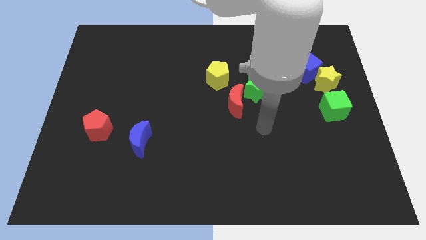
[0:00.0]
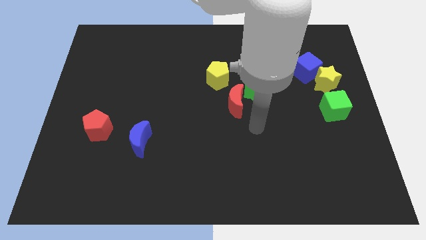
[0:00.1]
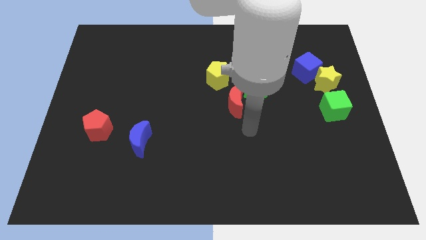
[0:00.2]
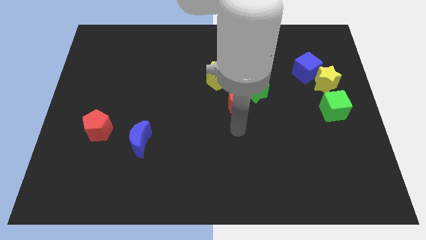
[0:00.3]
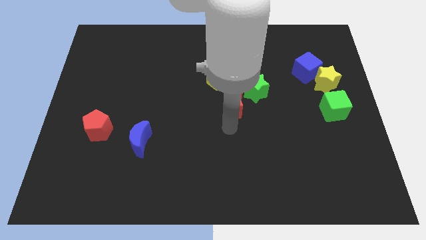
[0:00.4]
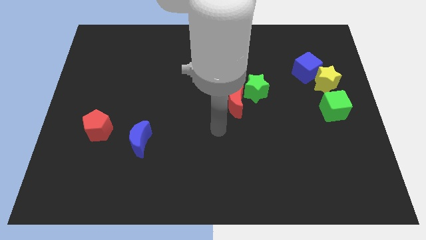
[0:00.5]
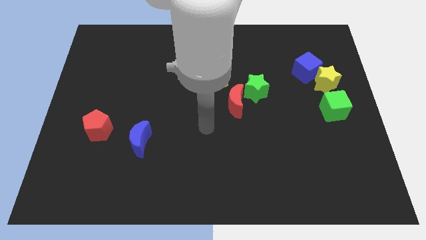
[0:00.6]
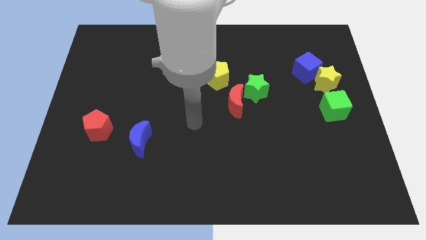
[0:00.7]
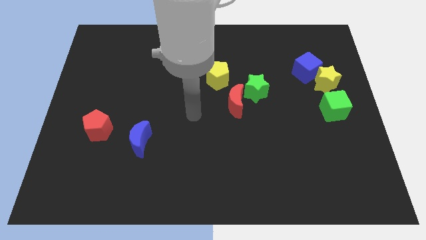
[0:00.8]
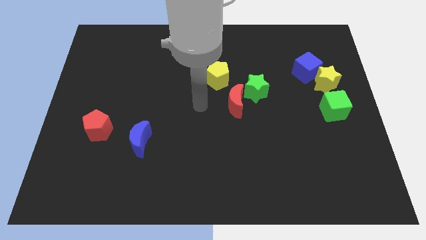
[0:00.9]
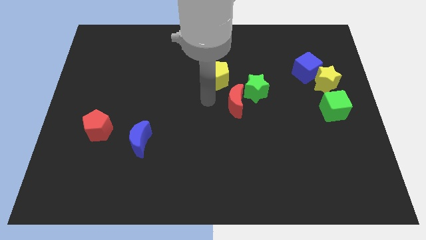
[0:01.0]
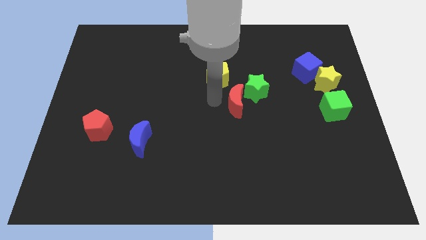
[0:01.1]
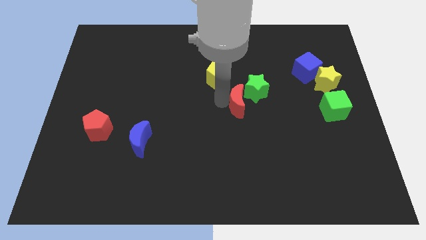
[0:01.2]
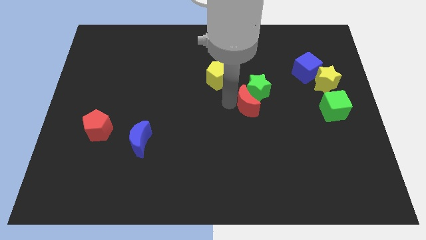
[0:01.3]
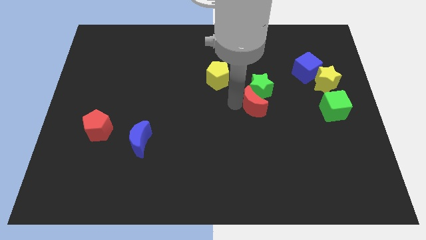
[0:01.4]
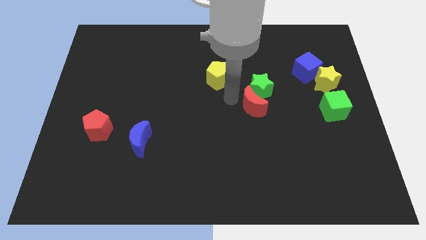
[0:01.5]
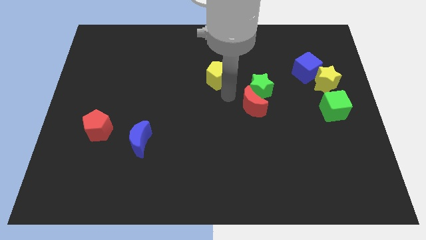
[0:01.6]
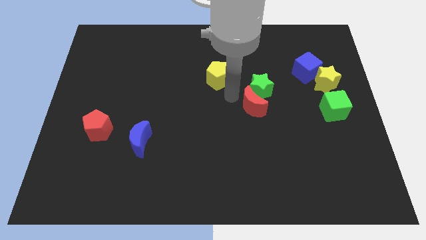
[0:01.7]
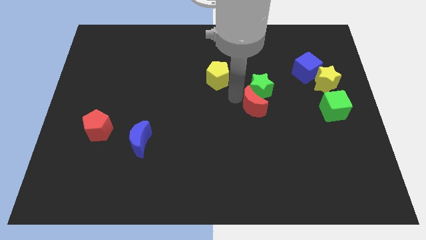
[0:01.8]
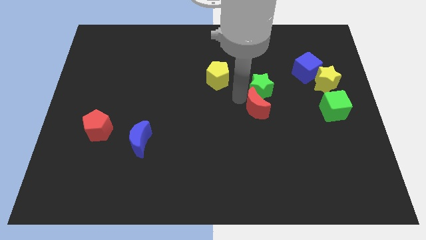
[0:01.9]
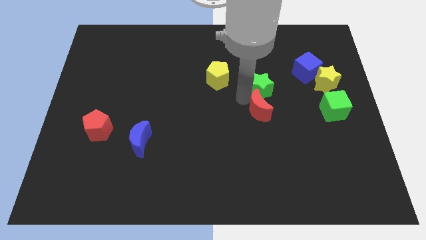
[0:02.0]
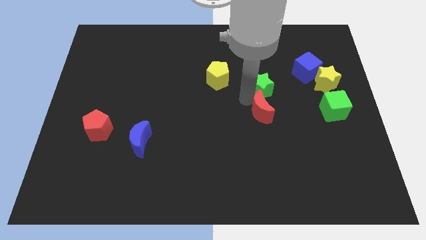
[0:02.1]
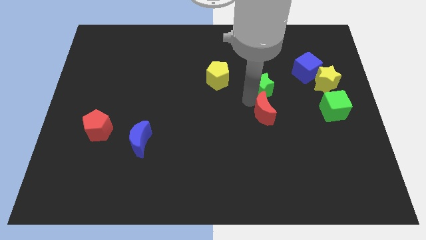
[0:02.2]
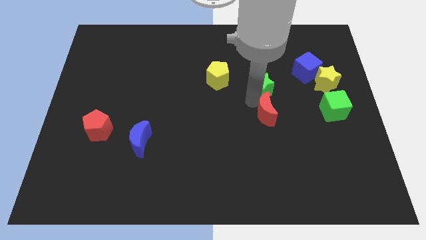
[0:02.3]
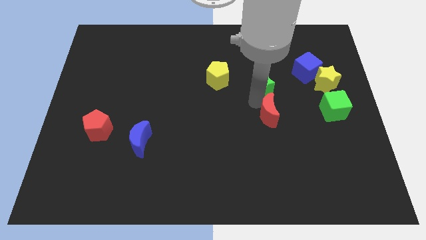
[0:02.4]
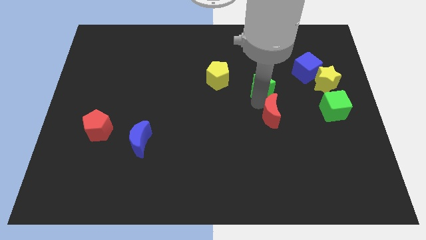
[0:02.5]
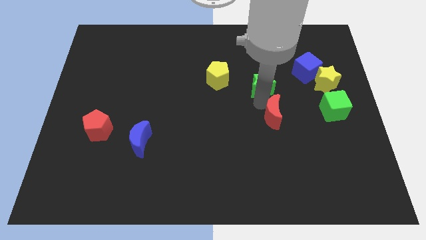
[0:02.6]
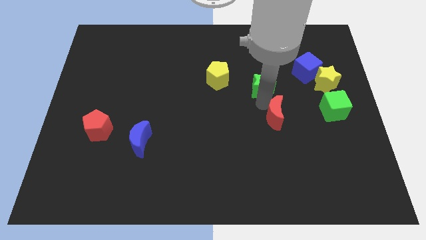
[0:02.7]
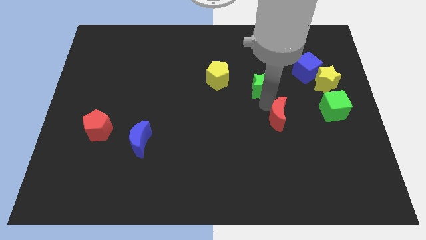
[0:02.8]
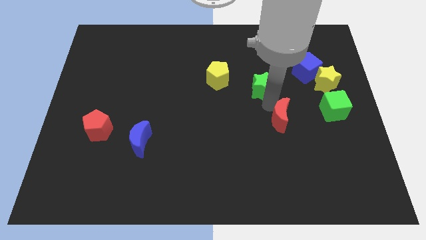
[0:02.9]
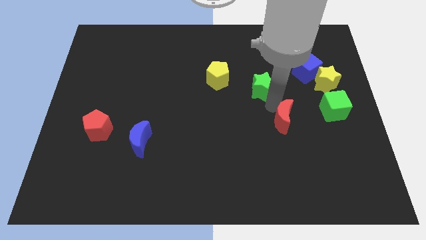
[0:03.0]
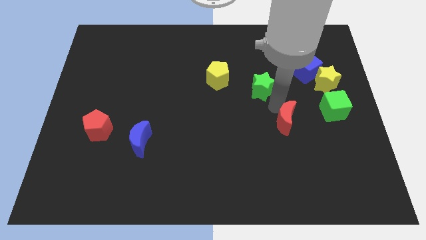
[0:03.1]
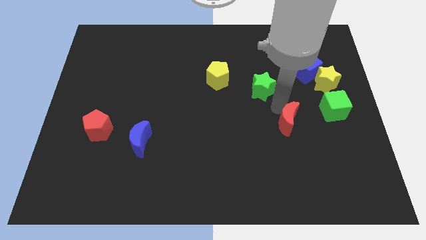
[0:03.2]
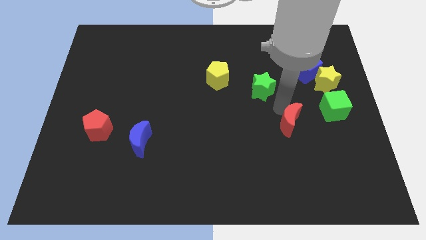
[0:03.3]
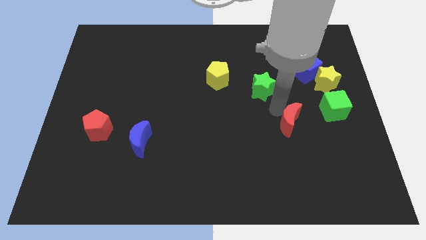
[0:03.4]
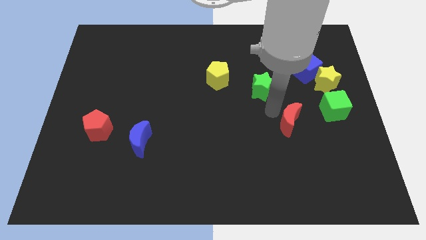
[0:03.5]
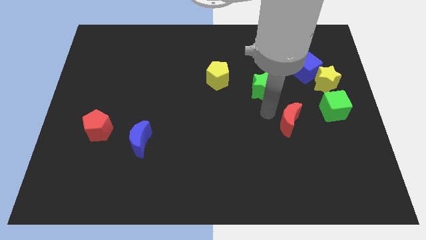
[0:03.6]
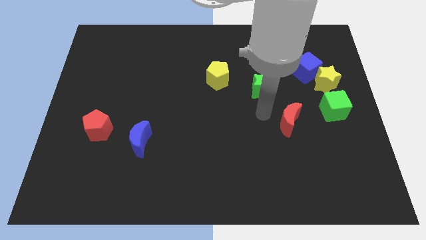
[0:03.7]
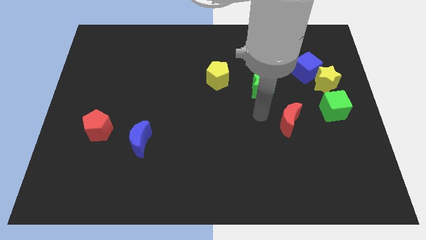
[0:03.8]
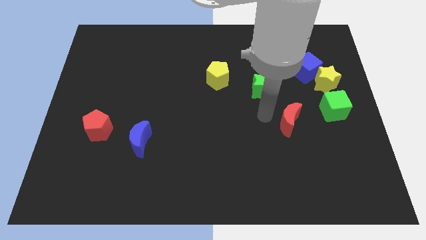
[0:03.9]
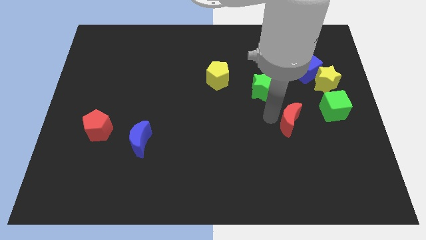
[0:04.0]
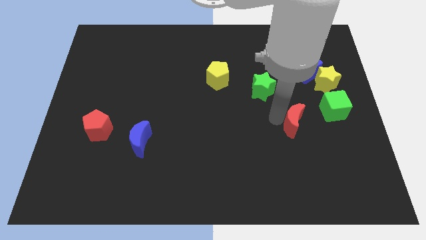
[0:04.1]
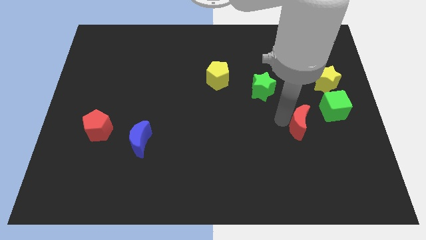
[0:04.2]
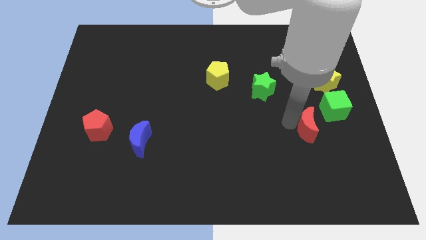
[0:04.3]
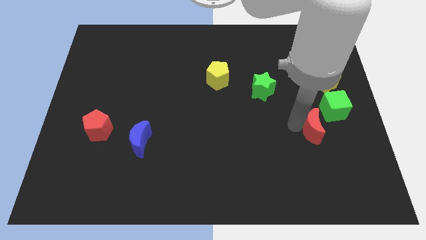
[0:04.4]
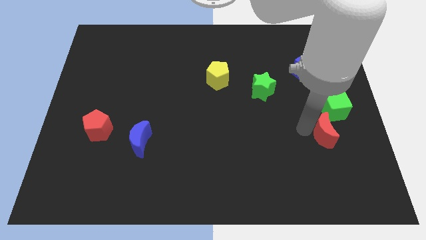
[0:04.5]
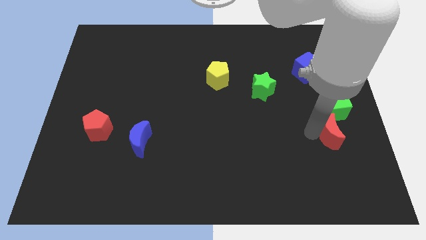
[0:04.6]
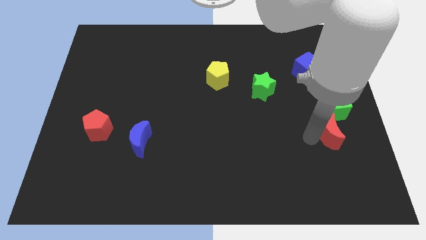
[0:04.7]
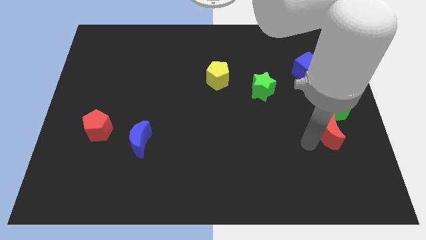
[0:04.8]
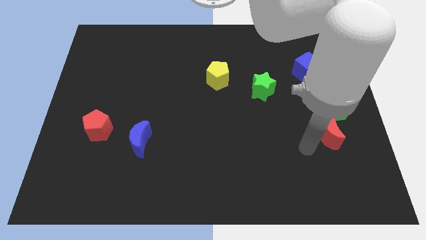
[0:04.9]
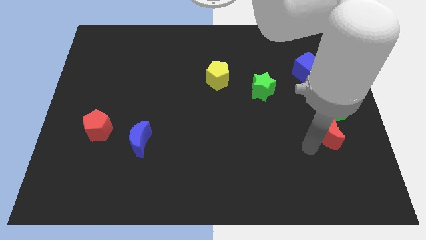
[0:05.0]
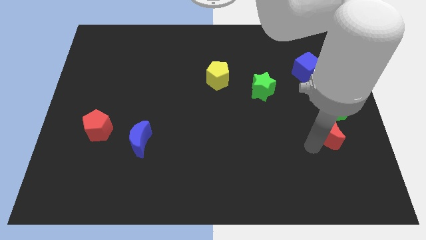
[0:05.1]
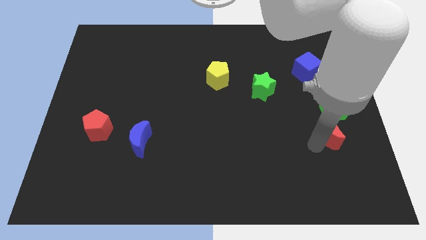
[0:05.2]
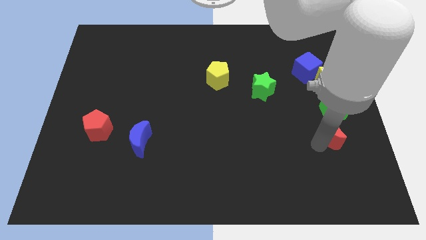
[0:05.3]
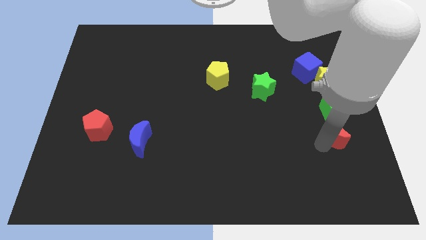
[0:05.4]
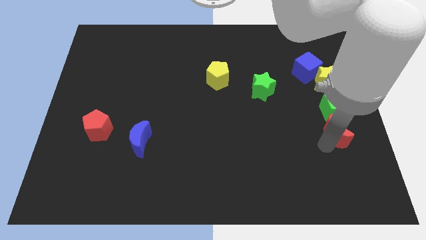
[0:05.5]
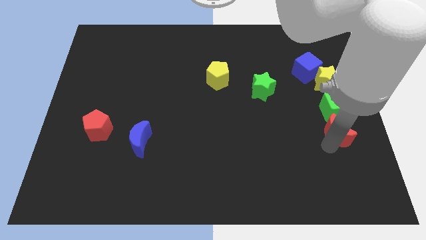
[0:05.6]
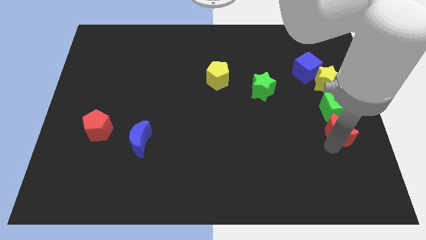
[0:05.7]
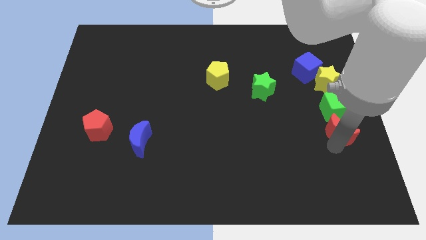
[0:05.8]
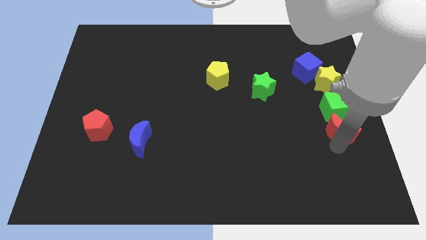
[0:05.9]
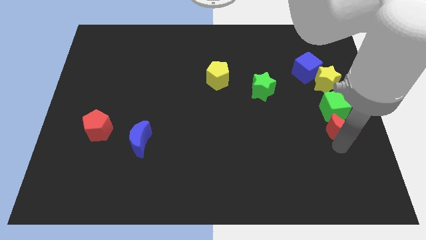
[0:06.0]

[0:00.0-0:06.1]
push the red moon to the right side of the board
